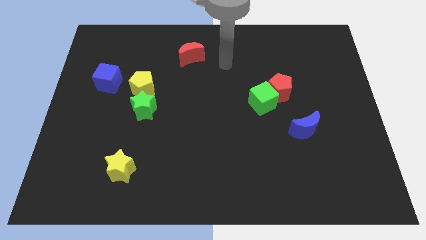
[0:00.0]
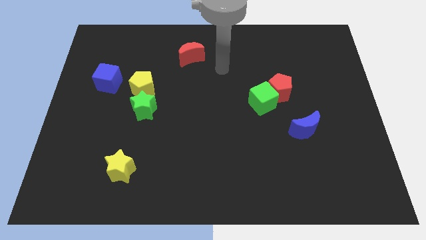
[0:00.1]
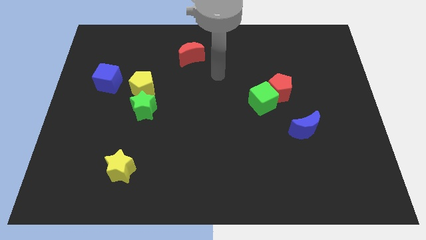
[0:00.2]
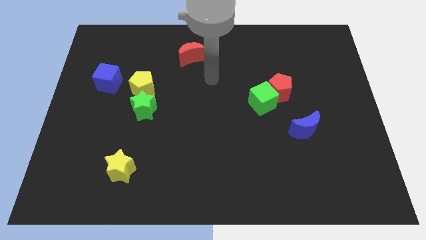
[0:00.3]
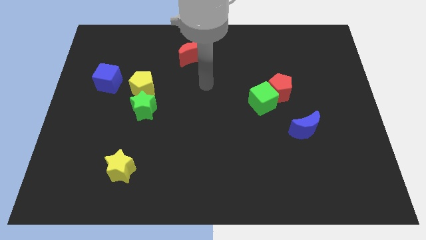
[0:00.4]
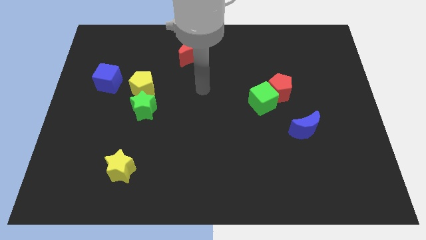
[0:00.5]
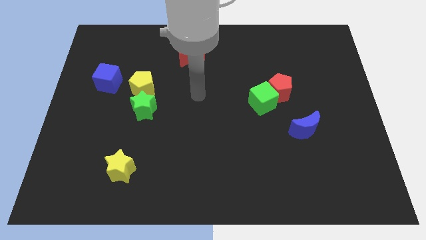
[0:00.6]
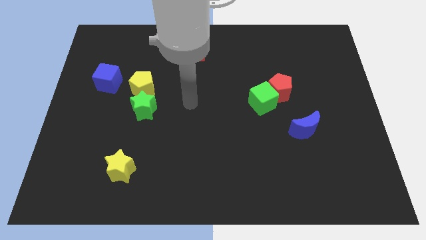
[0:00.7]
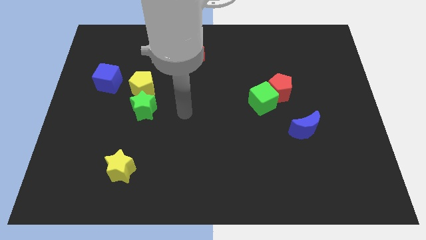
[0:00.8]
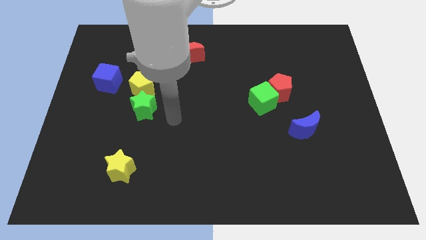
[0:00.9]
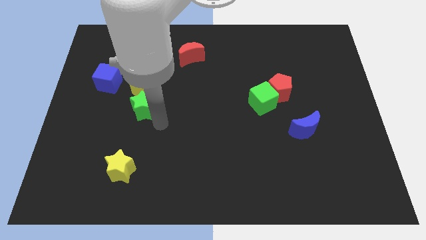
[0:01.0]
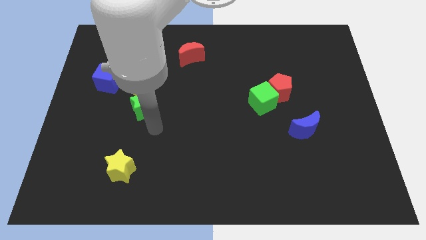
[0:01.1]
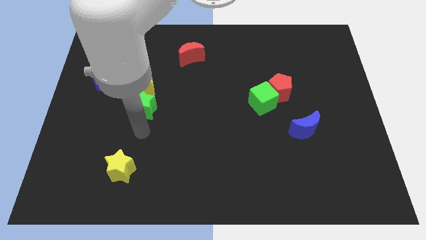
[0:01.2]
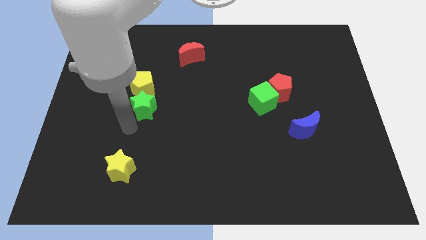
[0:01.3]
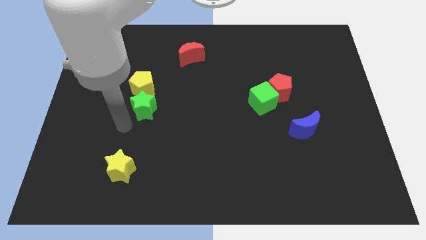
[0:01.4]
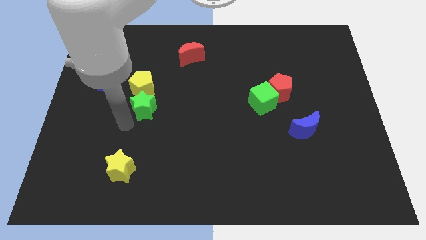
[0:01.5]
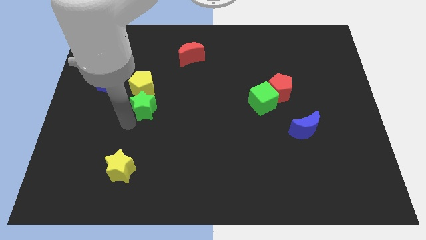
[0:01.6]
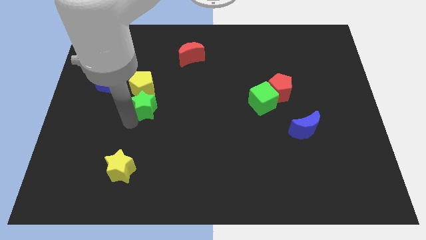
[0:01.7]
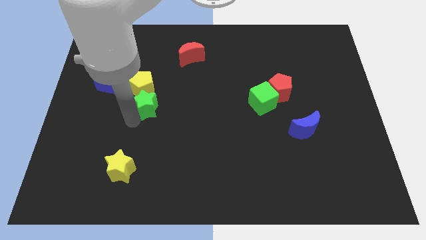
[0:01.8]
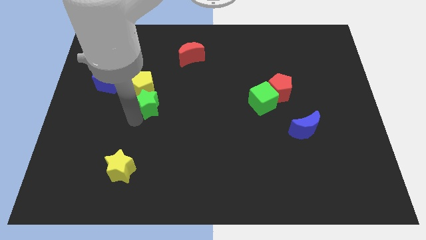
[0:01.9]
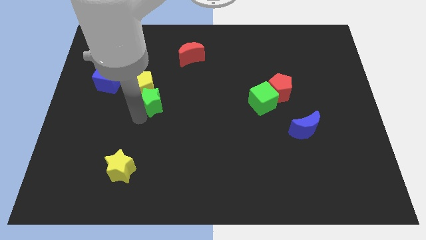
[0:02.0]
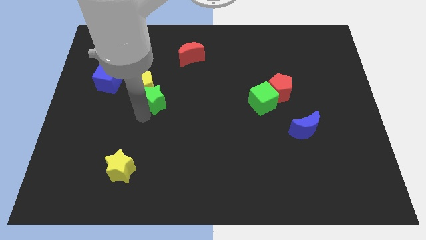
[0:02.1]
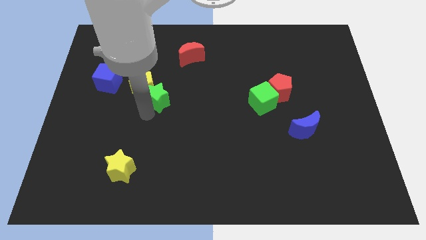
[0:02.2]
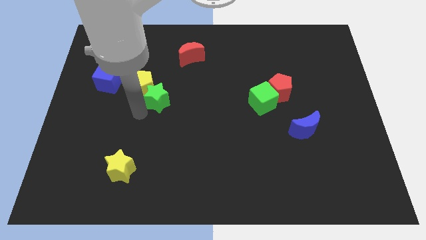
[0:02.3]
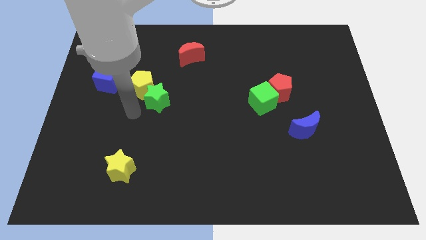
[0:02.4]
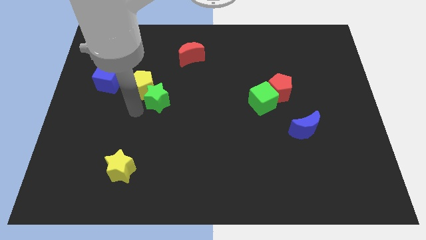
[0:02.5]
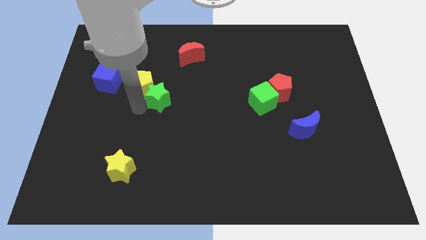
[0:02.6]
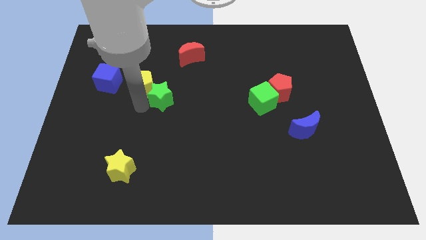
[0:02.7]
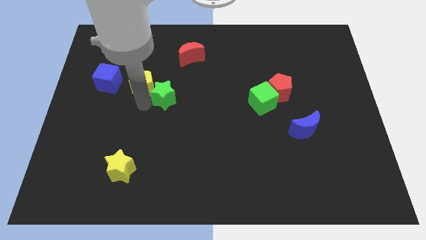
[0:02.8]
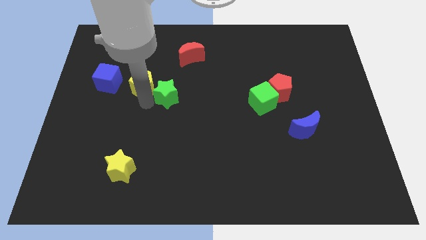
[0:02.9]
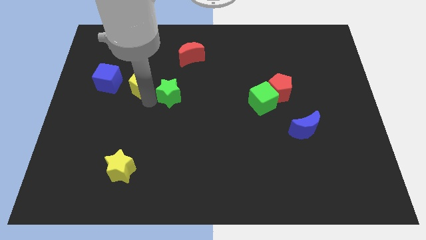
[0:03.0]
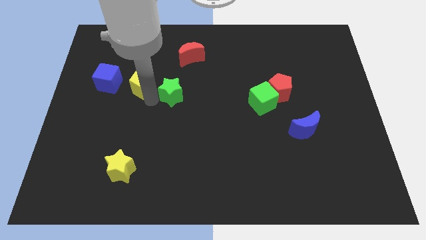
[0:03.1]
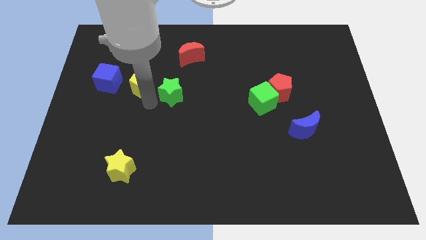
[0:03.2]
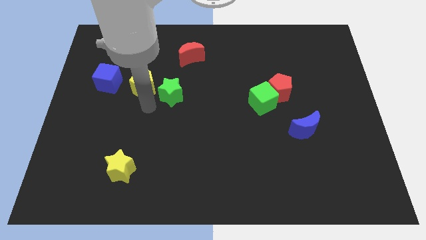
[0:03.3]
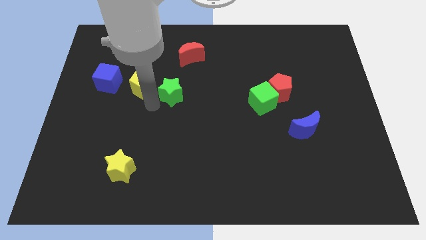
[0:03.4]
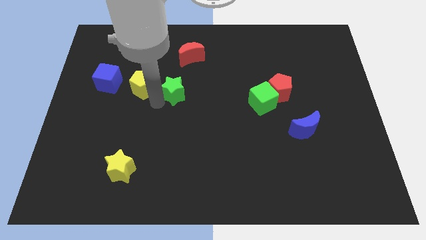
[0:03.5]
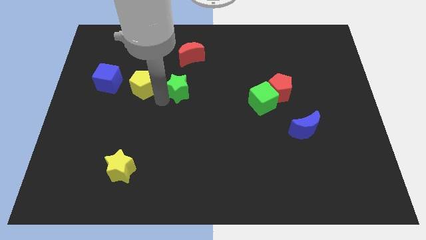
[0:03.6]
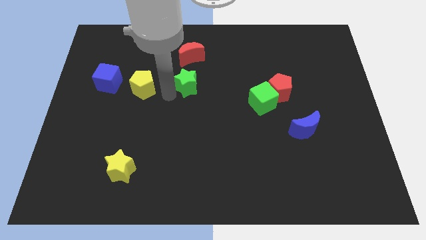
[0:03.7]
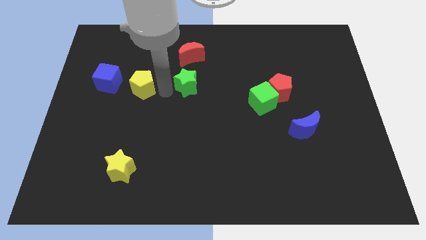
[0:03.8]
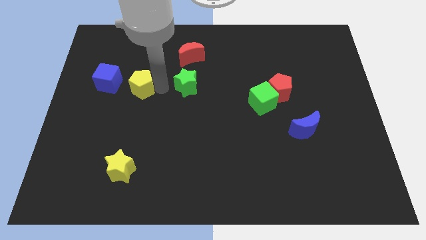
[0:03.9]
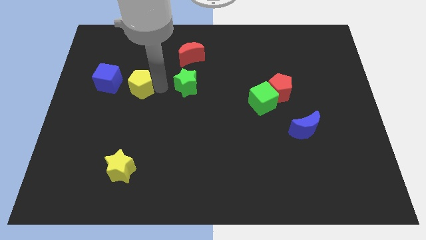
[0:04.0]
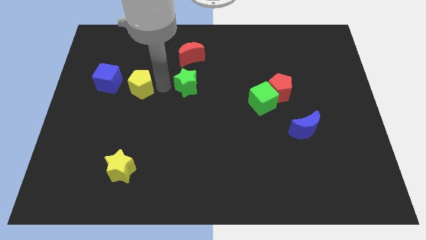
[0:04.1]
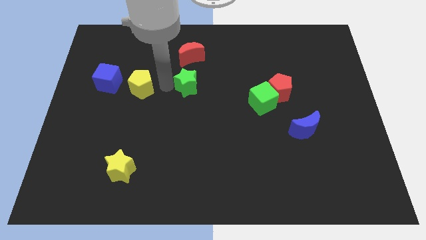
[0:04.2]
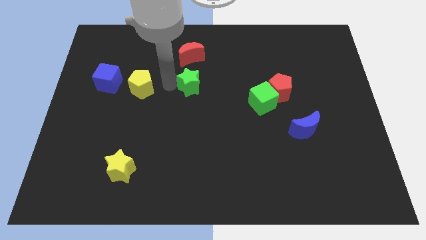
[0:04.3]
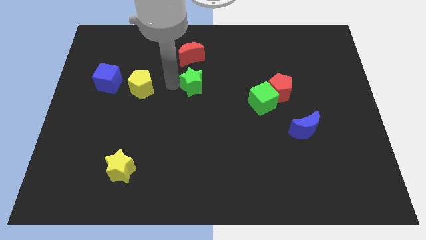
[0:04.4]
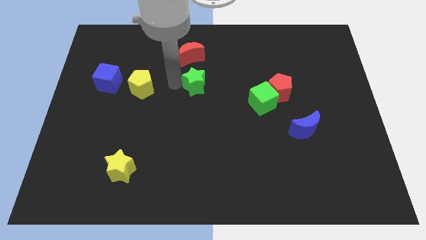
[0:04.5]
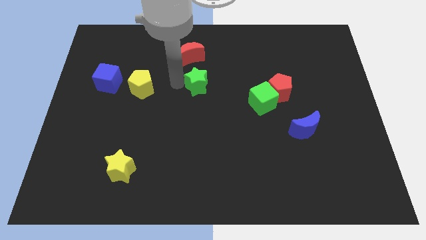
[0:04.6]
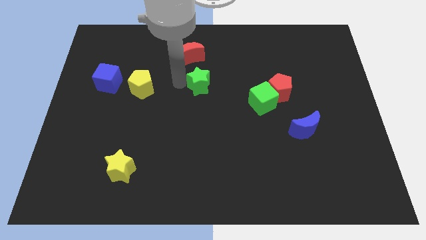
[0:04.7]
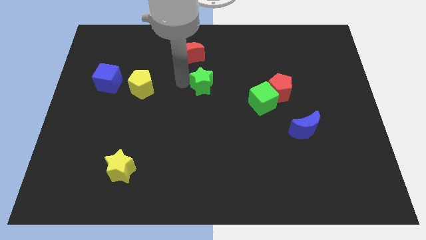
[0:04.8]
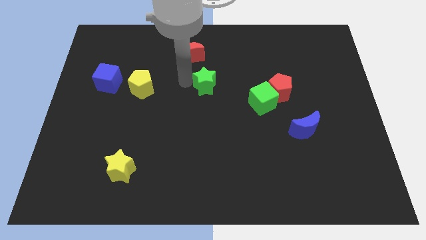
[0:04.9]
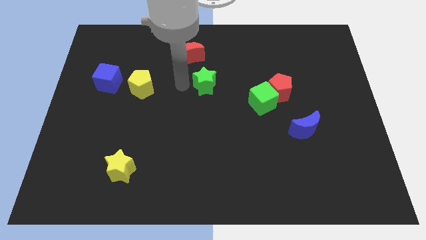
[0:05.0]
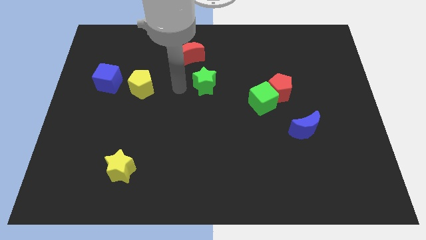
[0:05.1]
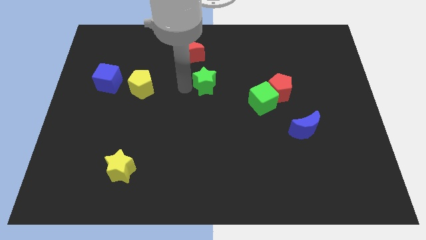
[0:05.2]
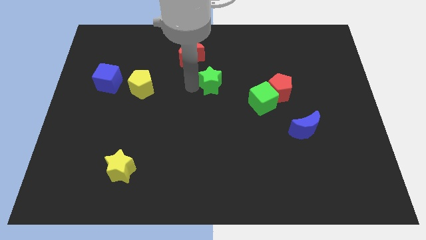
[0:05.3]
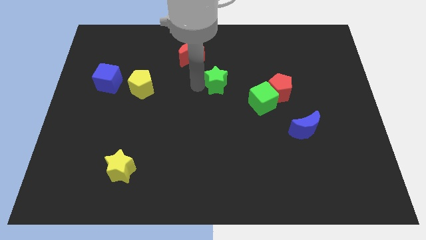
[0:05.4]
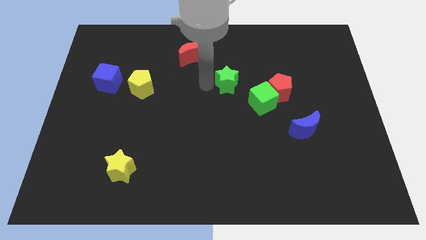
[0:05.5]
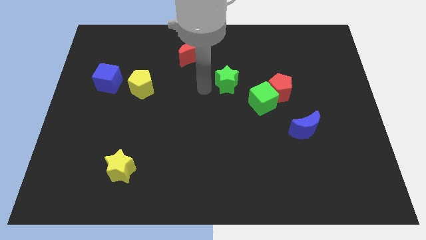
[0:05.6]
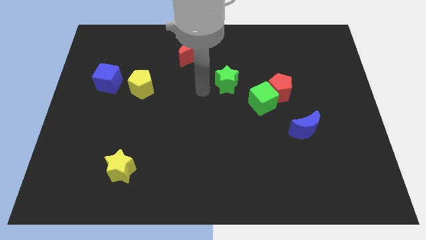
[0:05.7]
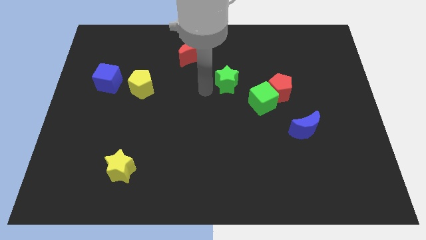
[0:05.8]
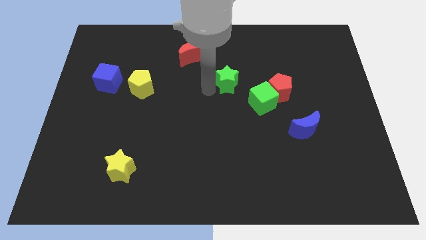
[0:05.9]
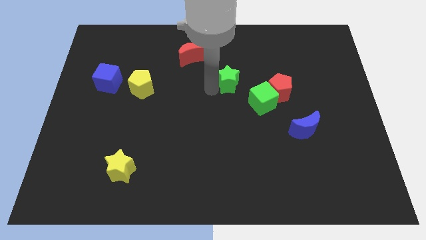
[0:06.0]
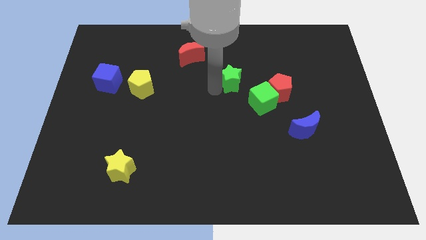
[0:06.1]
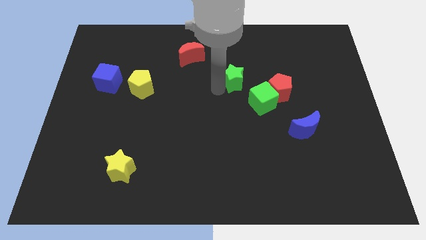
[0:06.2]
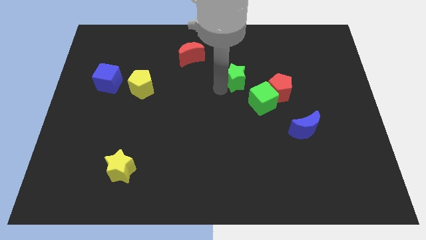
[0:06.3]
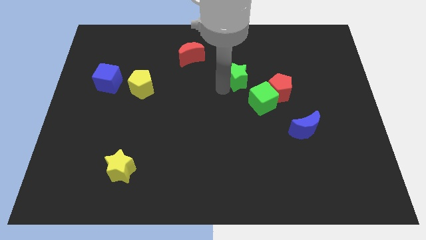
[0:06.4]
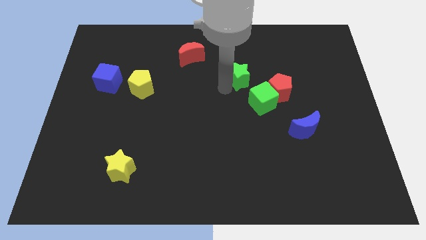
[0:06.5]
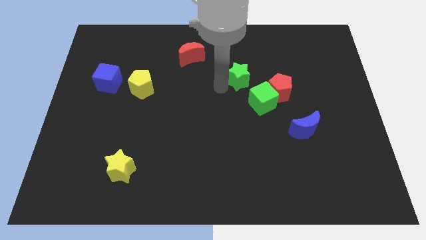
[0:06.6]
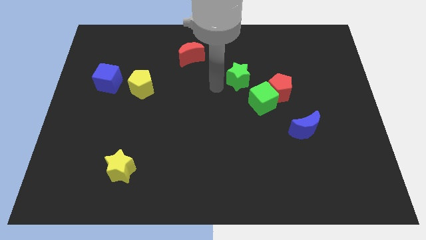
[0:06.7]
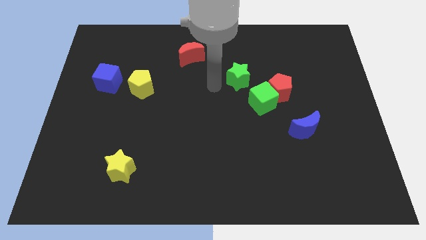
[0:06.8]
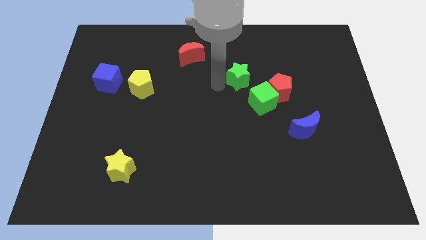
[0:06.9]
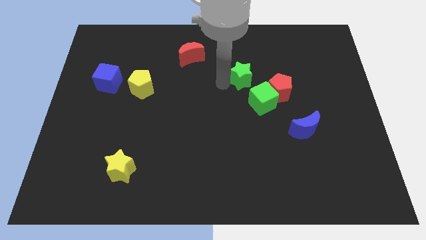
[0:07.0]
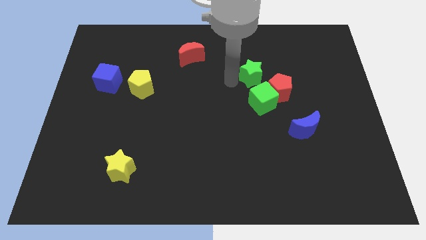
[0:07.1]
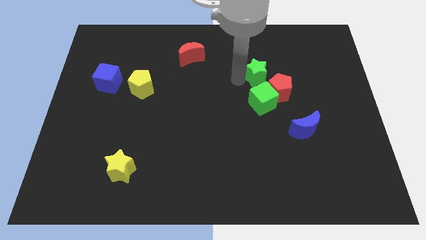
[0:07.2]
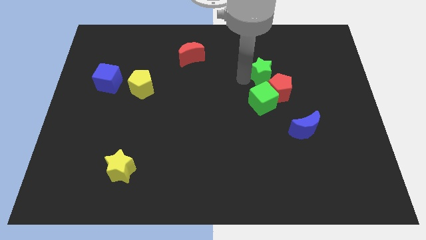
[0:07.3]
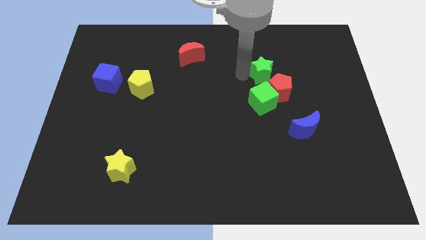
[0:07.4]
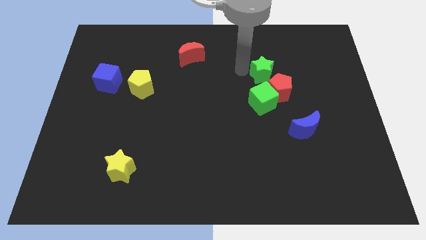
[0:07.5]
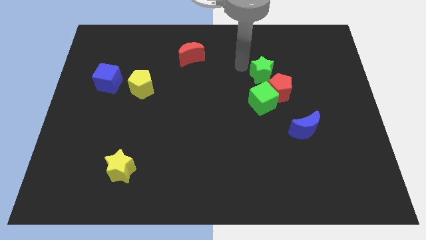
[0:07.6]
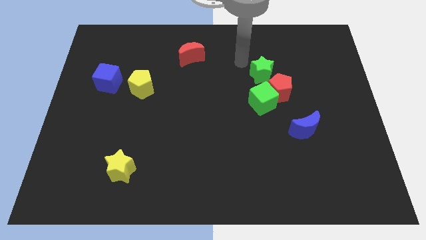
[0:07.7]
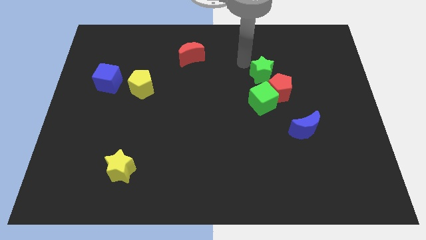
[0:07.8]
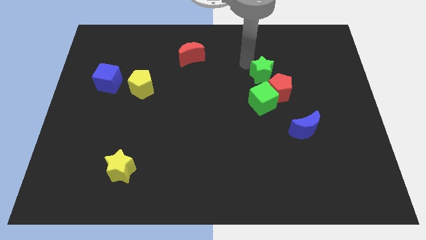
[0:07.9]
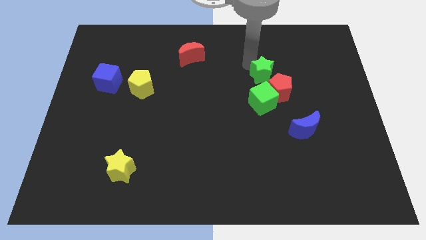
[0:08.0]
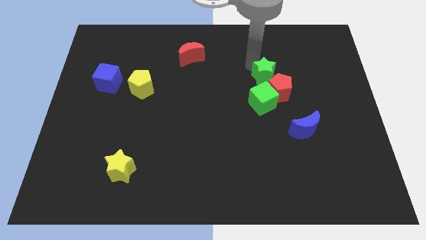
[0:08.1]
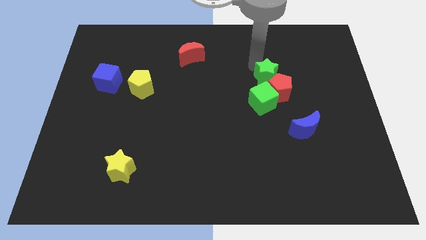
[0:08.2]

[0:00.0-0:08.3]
push the green star diagonally up and to the right of the green cube
